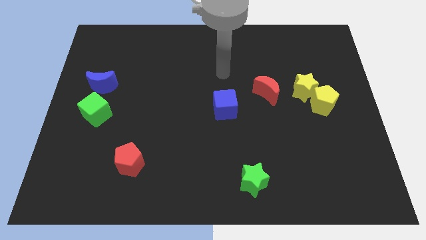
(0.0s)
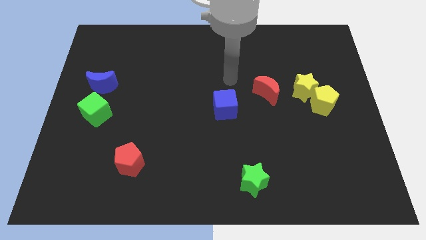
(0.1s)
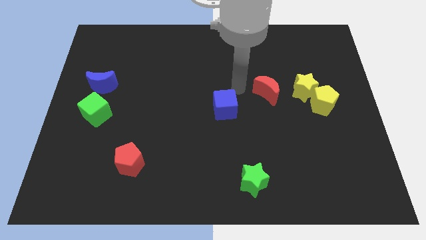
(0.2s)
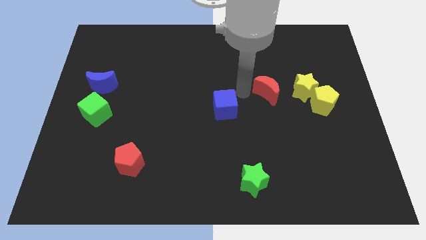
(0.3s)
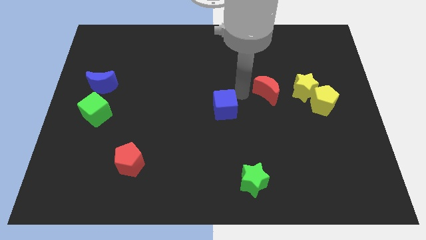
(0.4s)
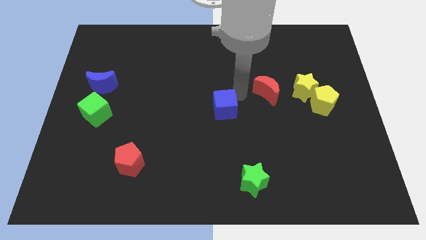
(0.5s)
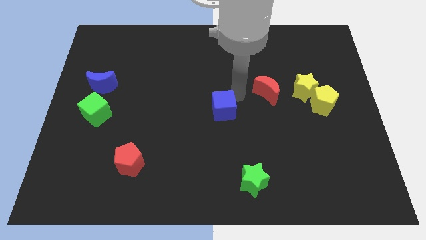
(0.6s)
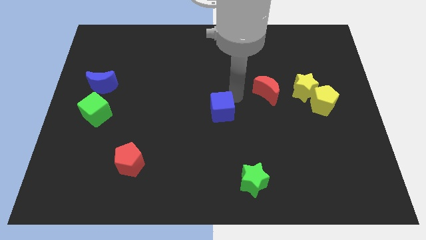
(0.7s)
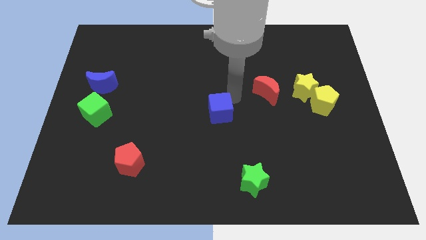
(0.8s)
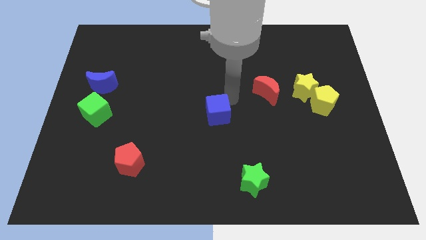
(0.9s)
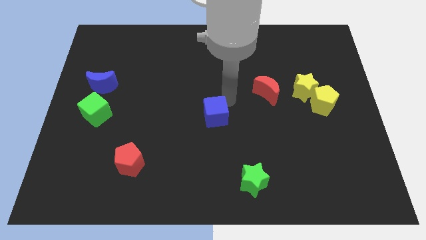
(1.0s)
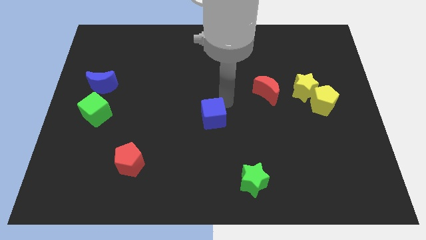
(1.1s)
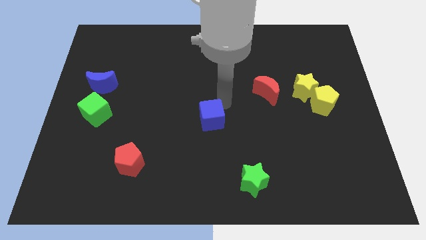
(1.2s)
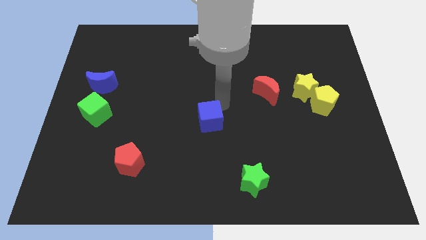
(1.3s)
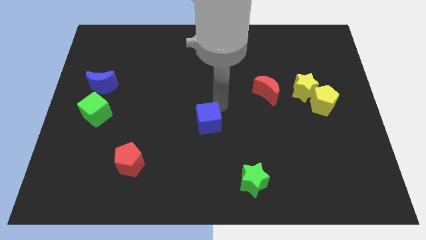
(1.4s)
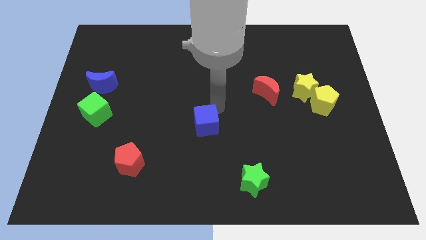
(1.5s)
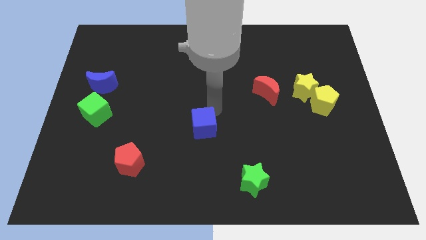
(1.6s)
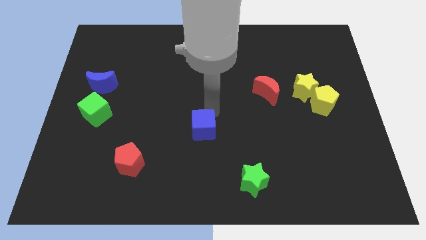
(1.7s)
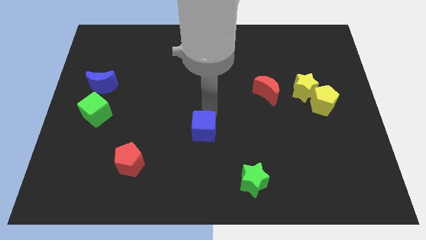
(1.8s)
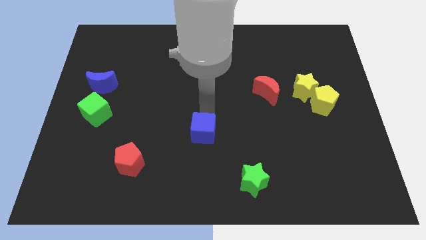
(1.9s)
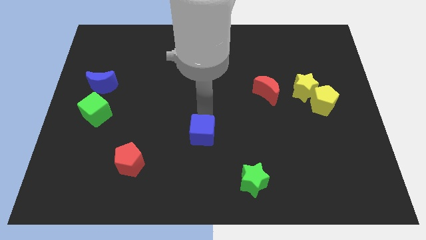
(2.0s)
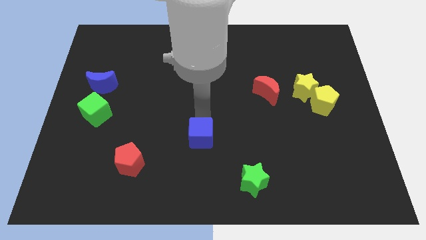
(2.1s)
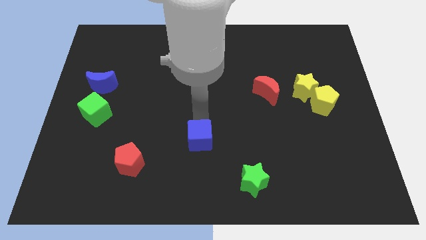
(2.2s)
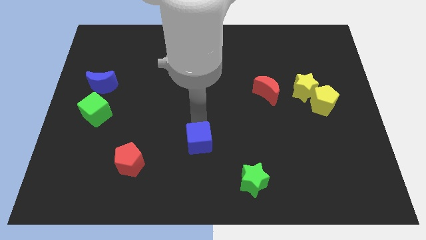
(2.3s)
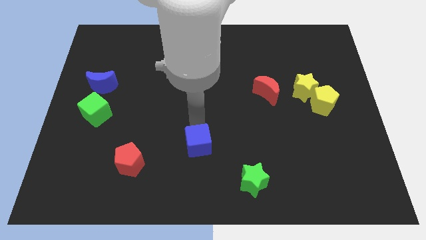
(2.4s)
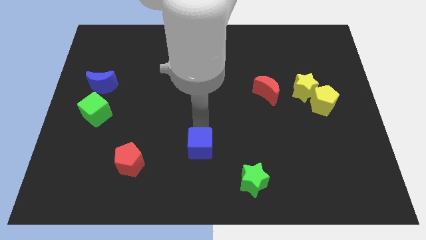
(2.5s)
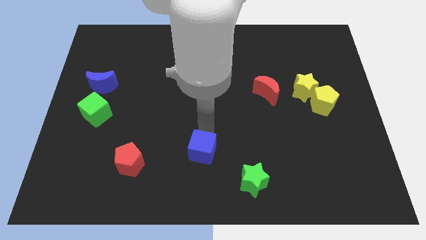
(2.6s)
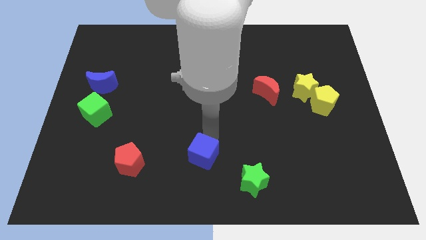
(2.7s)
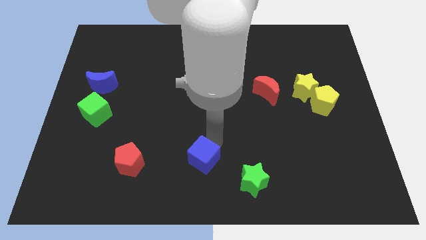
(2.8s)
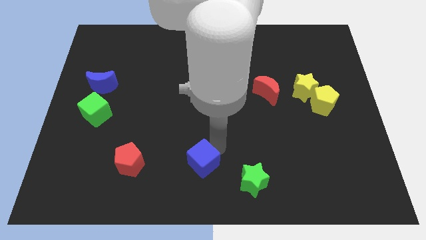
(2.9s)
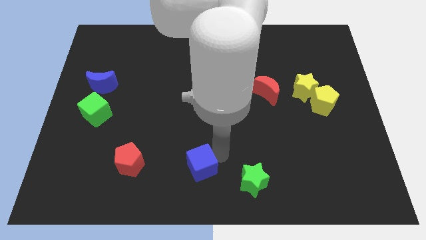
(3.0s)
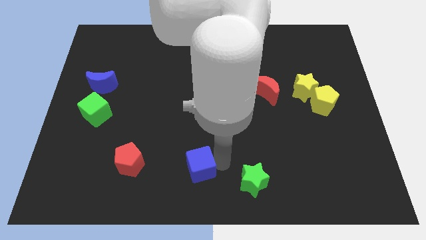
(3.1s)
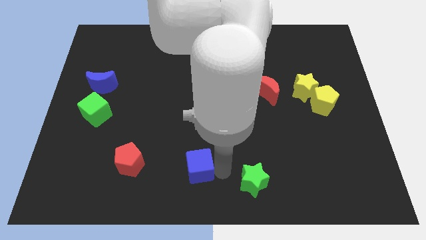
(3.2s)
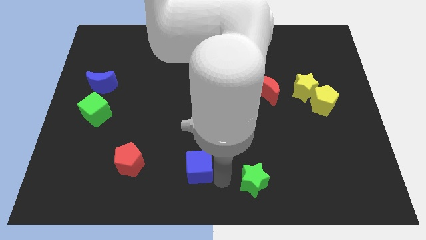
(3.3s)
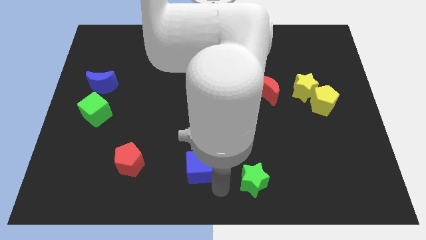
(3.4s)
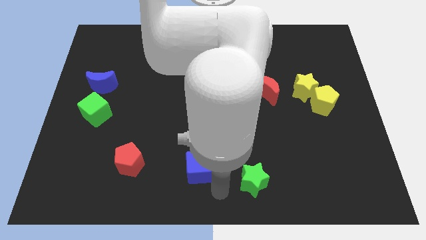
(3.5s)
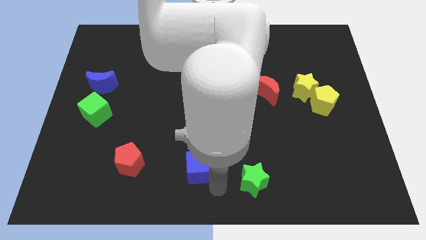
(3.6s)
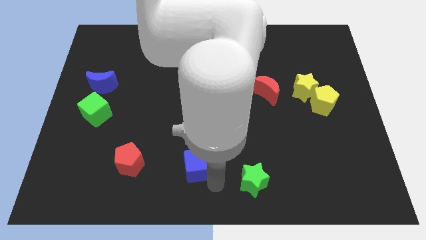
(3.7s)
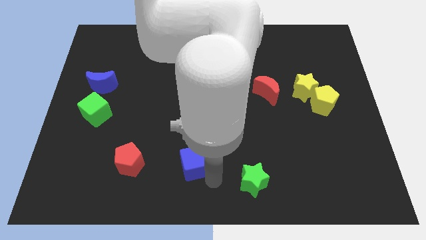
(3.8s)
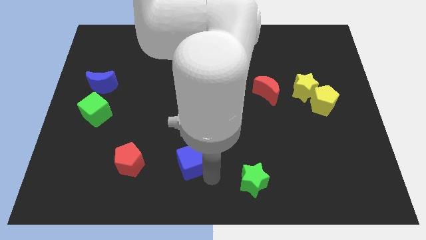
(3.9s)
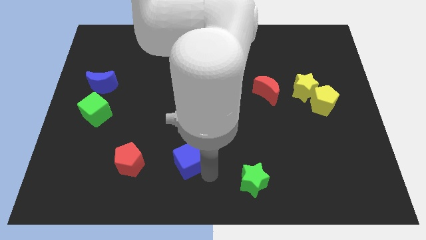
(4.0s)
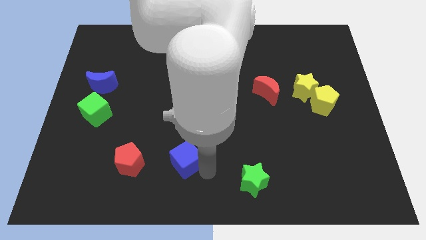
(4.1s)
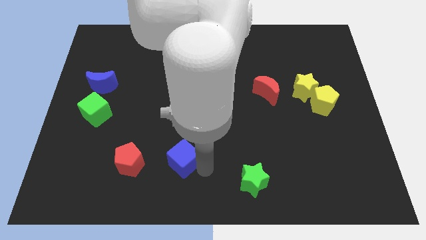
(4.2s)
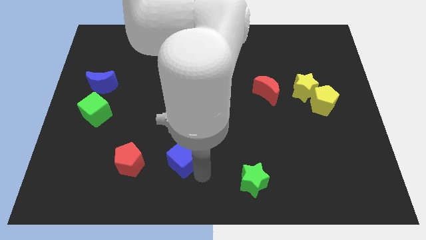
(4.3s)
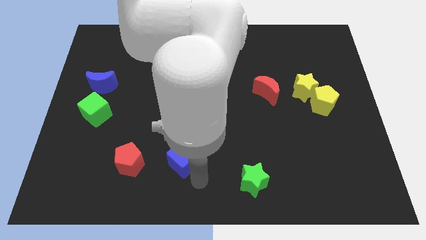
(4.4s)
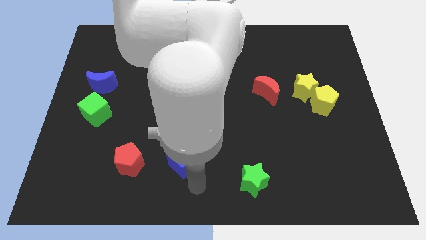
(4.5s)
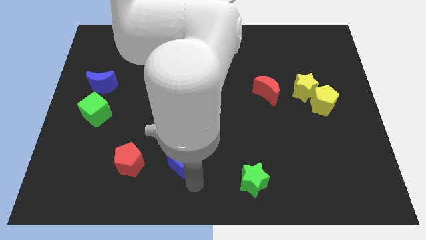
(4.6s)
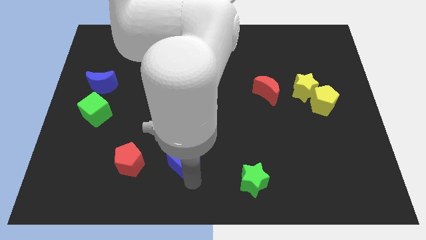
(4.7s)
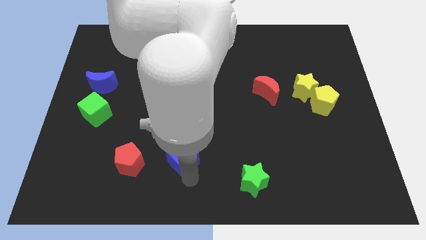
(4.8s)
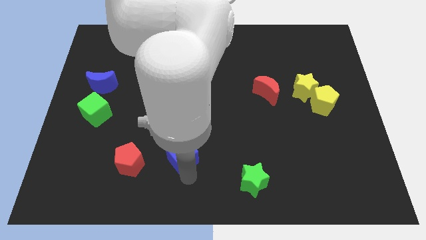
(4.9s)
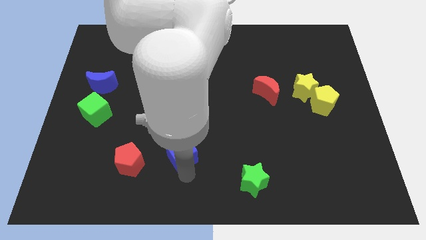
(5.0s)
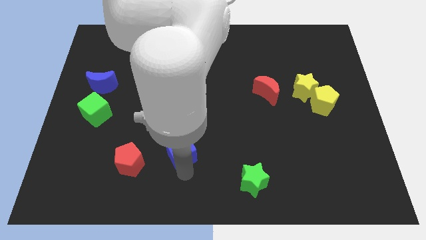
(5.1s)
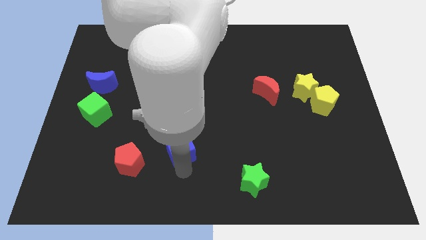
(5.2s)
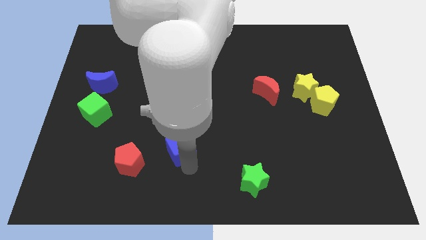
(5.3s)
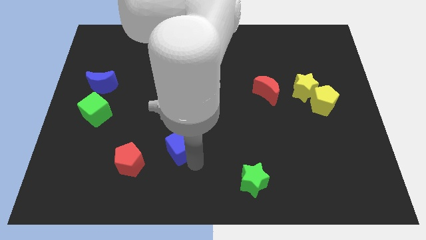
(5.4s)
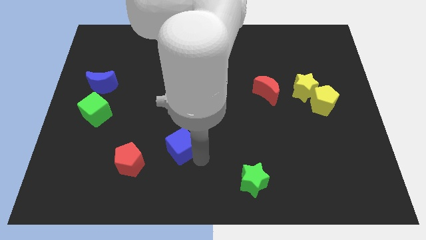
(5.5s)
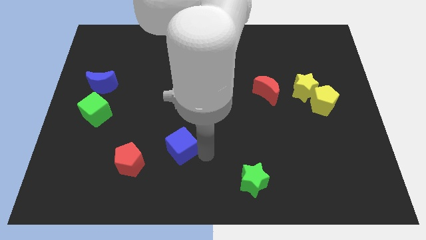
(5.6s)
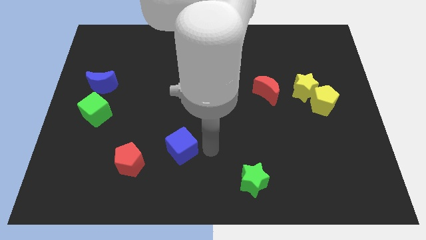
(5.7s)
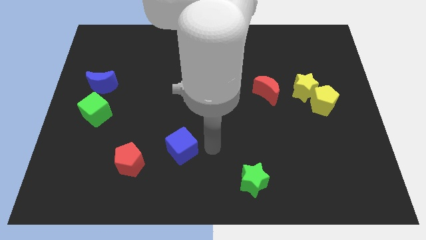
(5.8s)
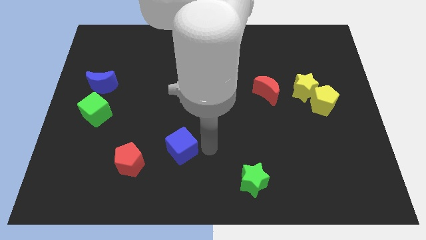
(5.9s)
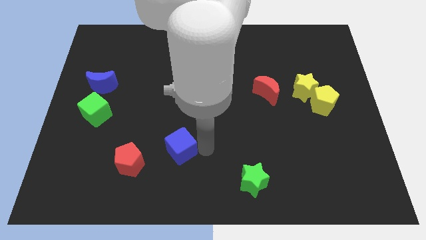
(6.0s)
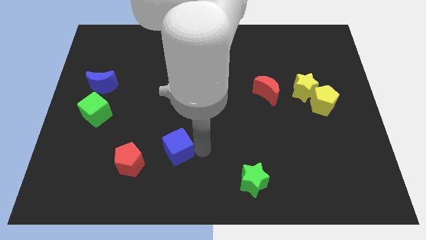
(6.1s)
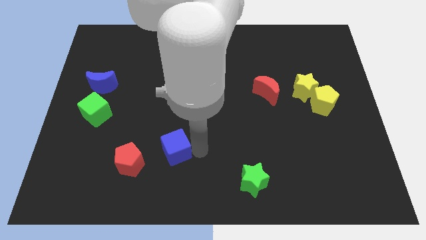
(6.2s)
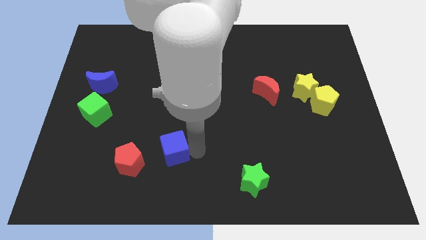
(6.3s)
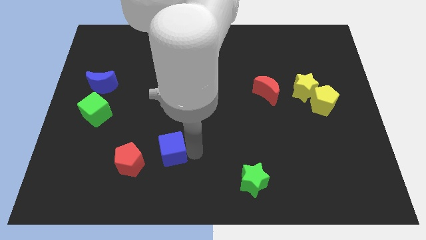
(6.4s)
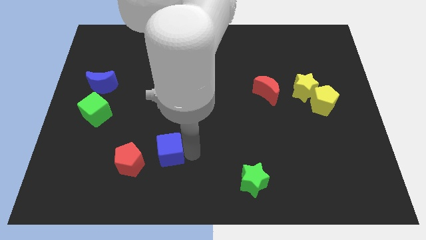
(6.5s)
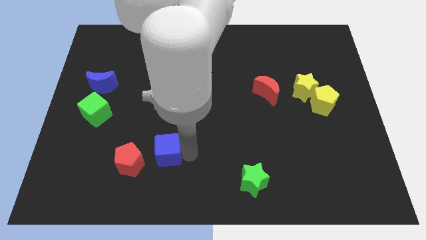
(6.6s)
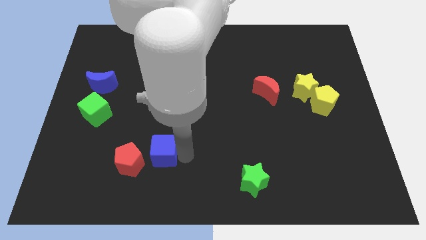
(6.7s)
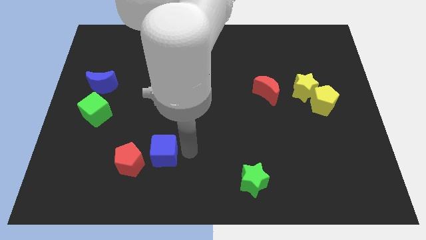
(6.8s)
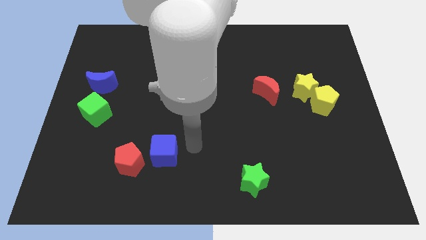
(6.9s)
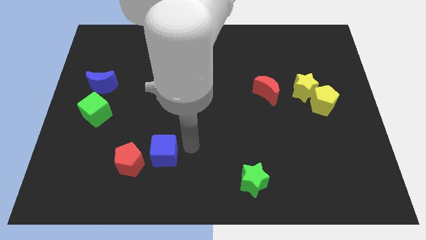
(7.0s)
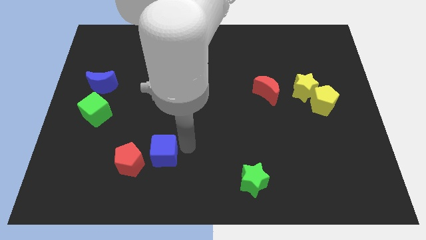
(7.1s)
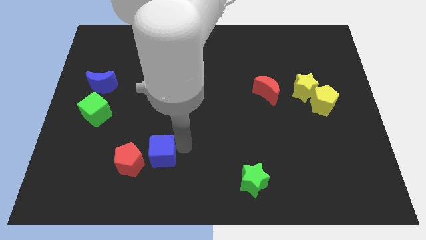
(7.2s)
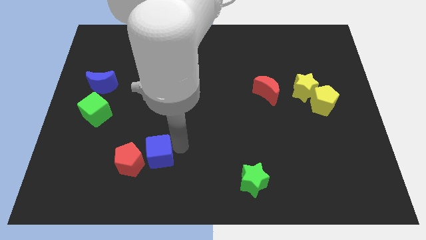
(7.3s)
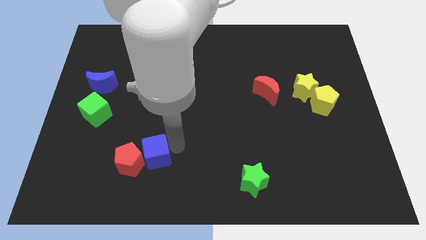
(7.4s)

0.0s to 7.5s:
push the blue cube to the red pentagon
